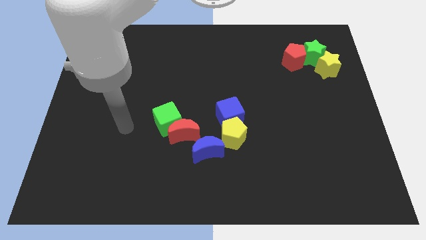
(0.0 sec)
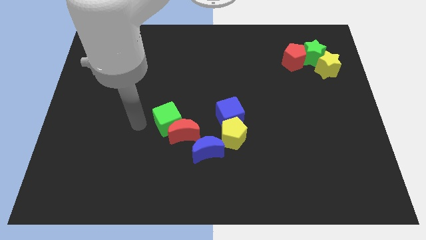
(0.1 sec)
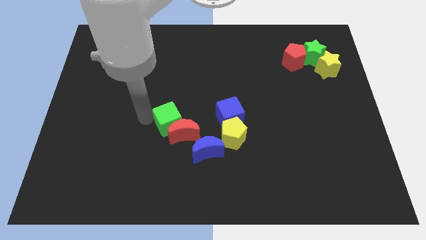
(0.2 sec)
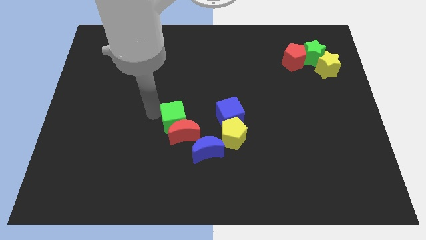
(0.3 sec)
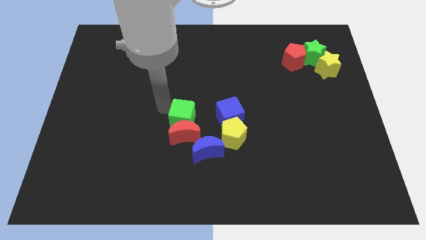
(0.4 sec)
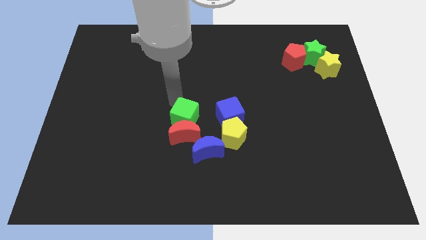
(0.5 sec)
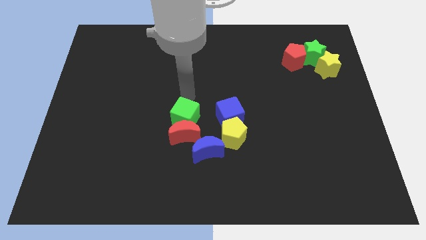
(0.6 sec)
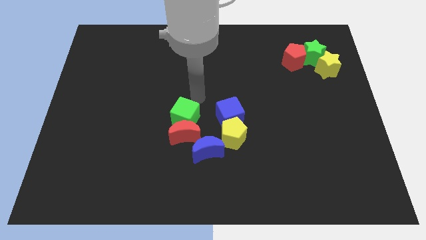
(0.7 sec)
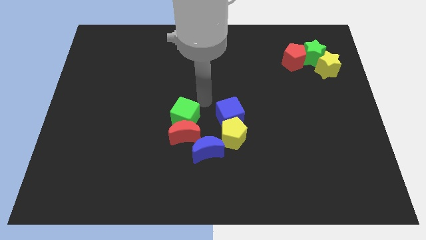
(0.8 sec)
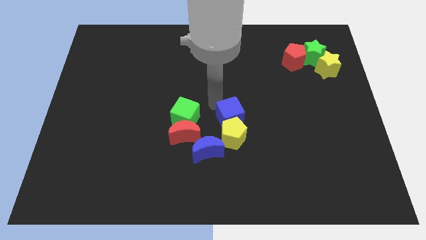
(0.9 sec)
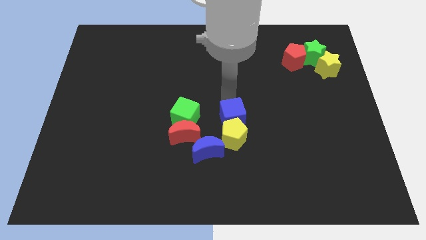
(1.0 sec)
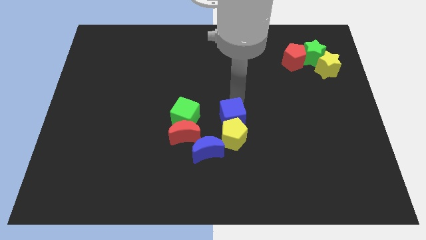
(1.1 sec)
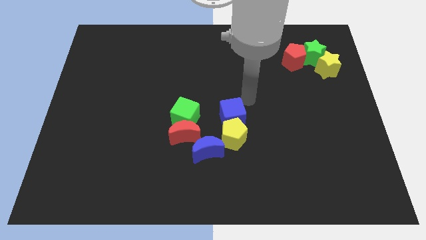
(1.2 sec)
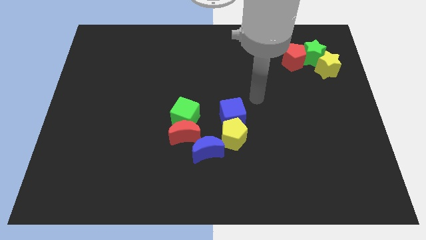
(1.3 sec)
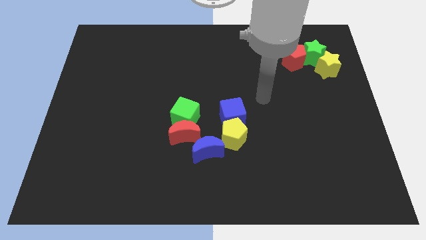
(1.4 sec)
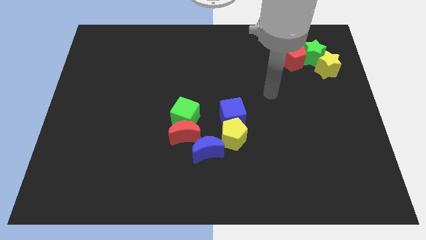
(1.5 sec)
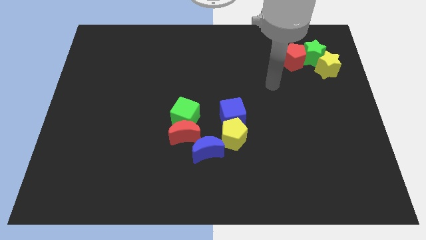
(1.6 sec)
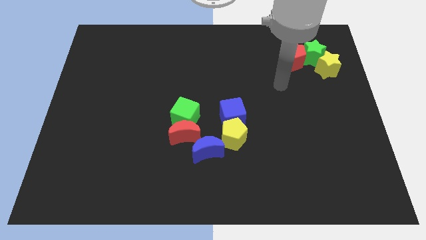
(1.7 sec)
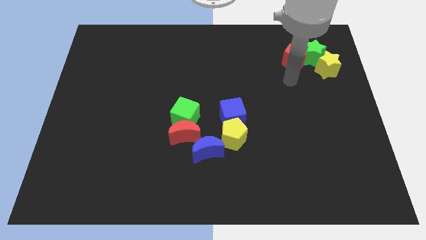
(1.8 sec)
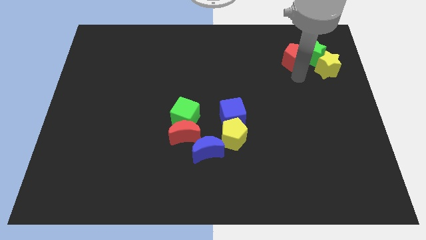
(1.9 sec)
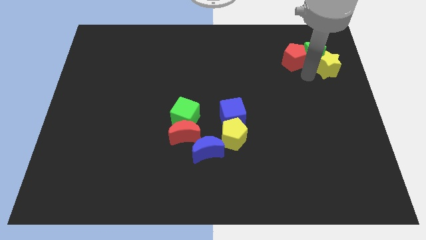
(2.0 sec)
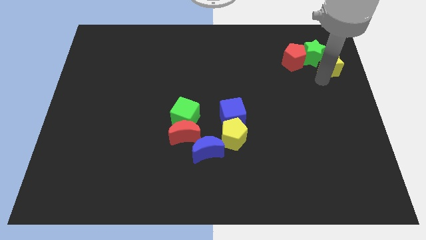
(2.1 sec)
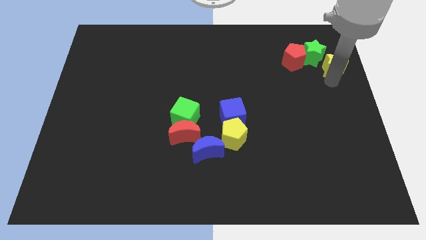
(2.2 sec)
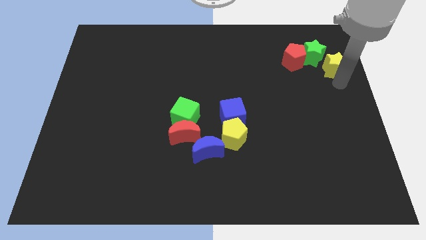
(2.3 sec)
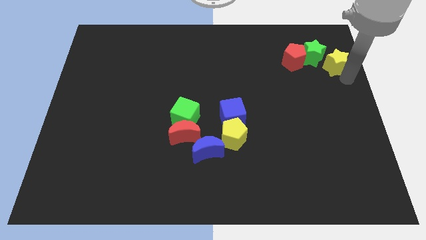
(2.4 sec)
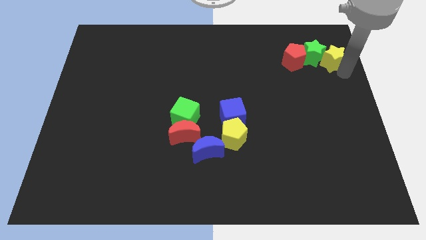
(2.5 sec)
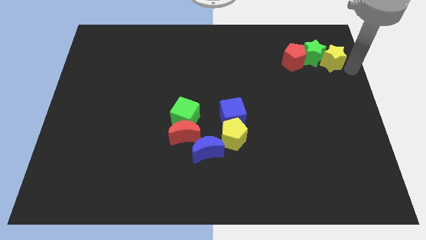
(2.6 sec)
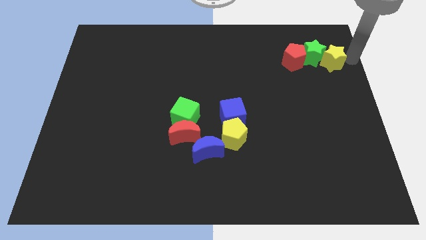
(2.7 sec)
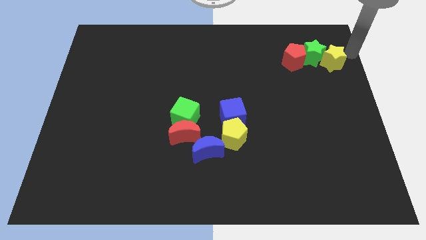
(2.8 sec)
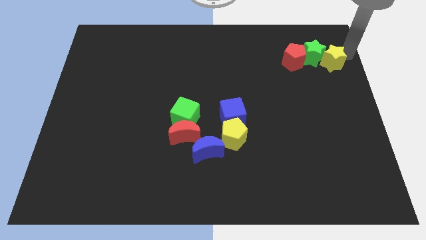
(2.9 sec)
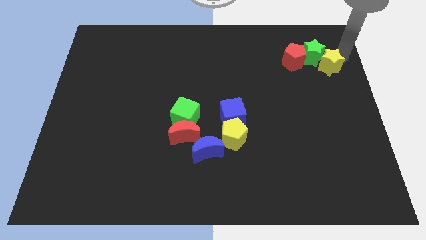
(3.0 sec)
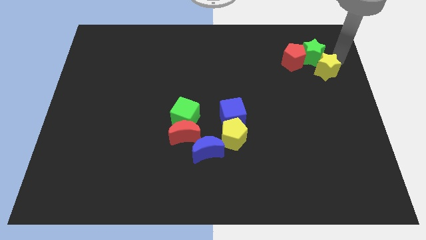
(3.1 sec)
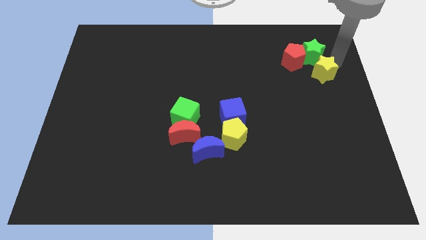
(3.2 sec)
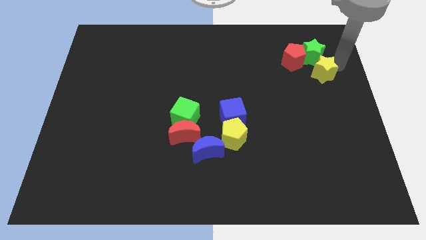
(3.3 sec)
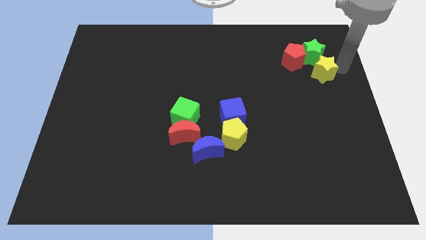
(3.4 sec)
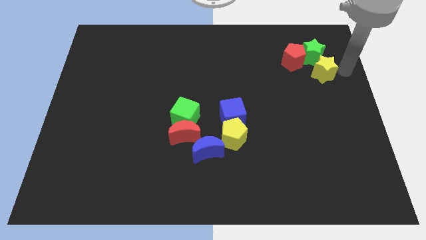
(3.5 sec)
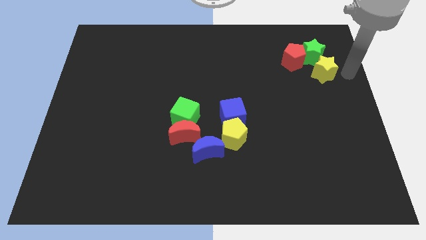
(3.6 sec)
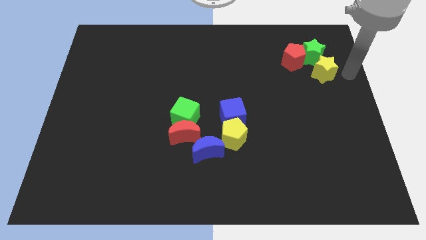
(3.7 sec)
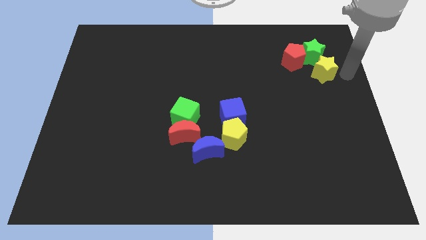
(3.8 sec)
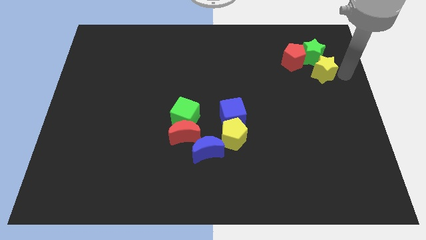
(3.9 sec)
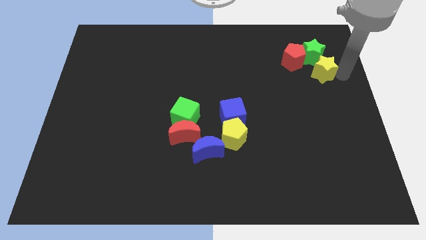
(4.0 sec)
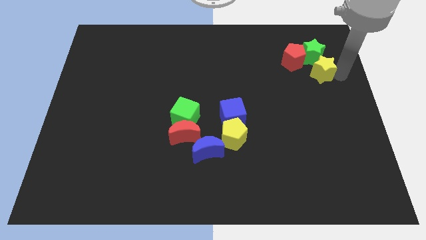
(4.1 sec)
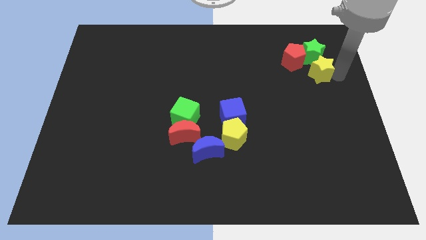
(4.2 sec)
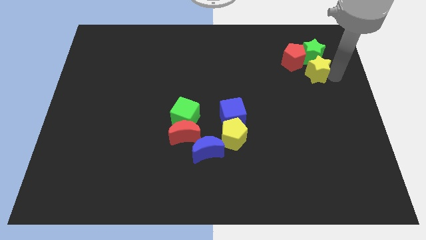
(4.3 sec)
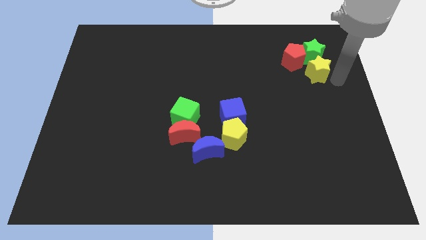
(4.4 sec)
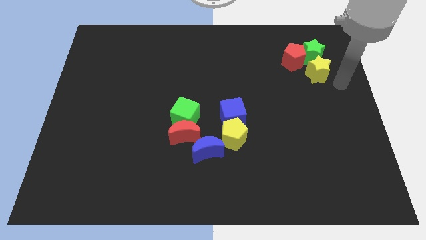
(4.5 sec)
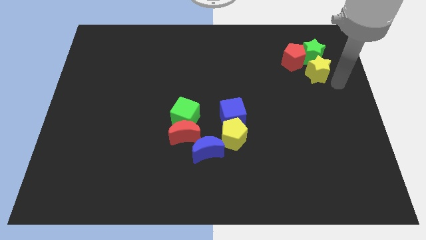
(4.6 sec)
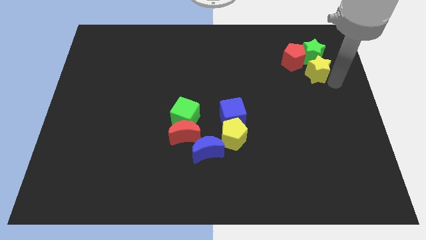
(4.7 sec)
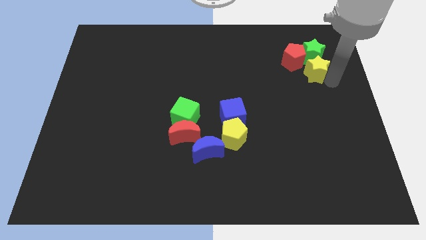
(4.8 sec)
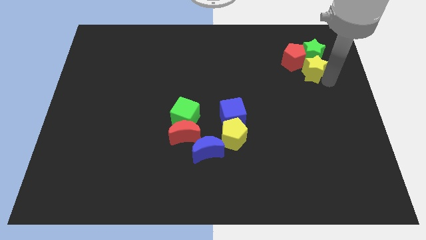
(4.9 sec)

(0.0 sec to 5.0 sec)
slide the yellow star close to the red pentagon

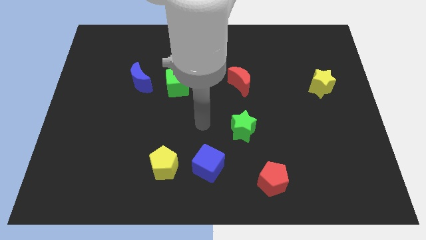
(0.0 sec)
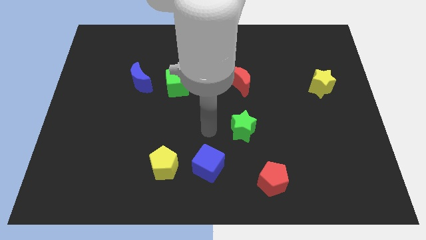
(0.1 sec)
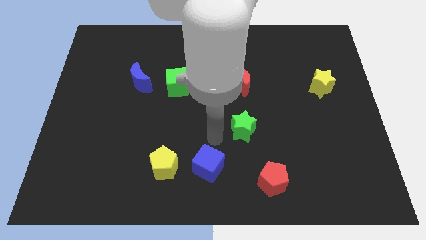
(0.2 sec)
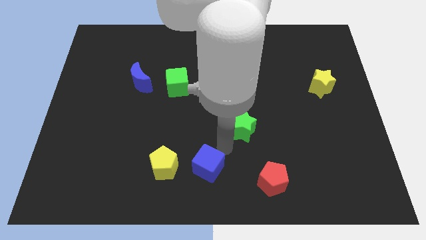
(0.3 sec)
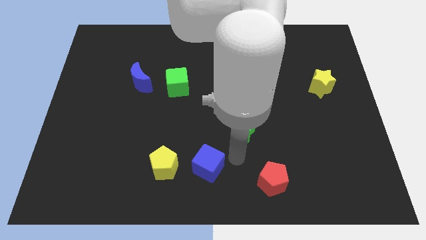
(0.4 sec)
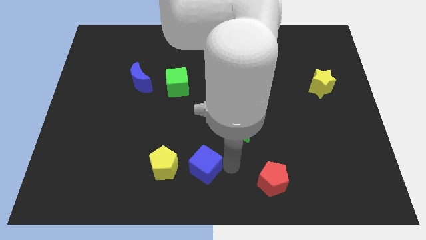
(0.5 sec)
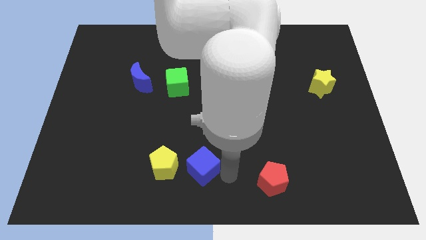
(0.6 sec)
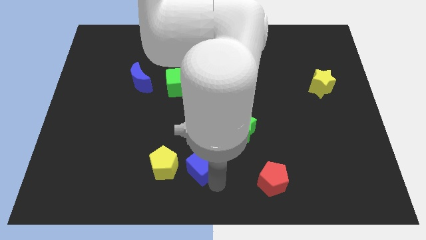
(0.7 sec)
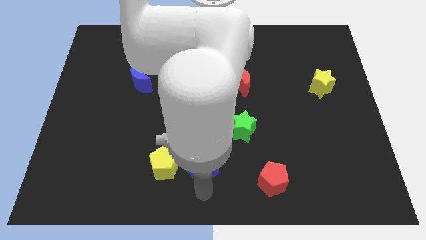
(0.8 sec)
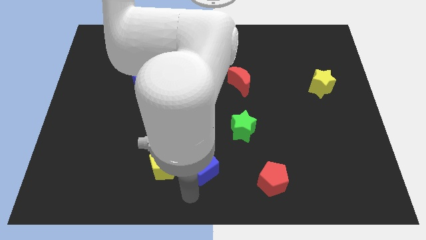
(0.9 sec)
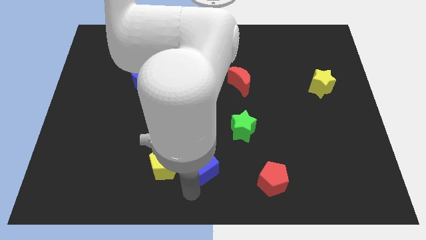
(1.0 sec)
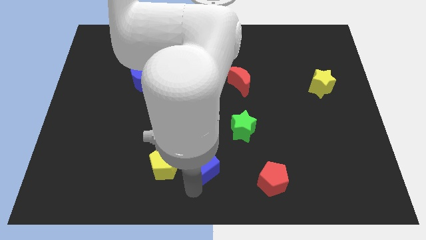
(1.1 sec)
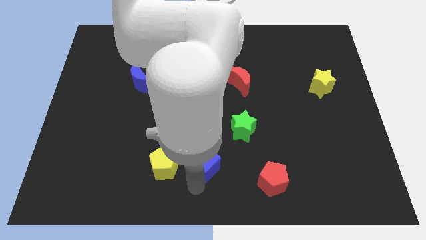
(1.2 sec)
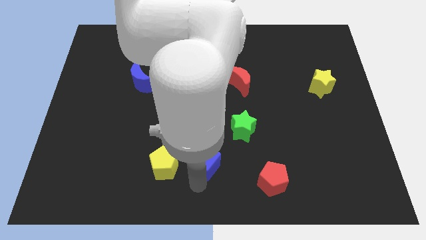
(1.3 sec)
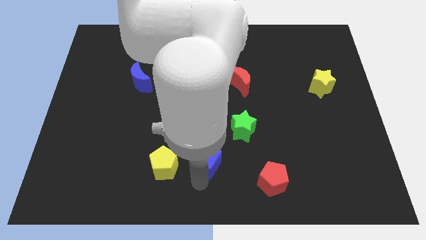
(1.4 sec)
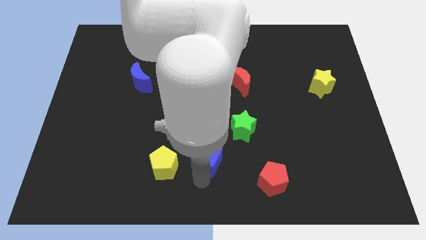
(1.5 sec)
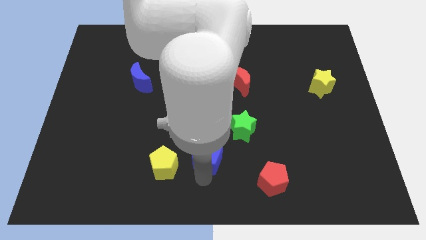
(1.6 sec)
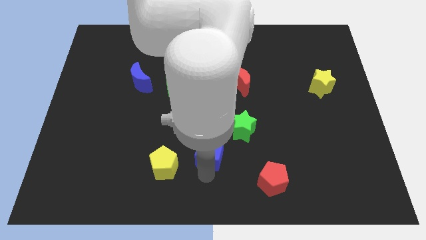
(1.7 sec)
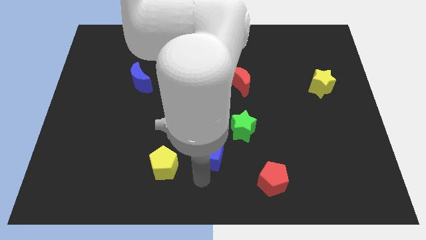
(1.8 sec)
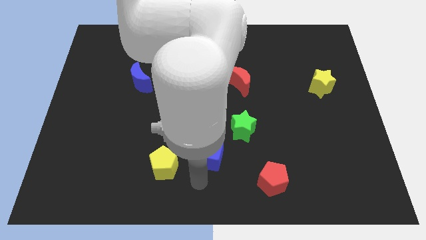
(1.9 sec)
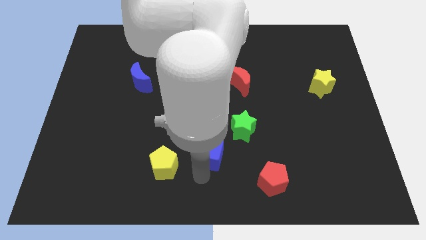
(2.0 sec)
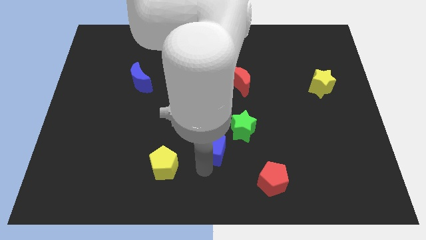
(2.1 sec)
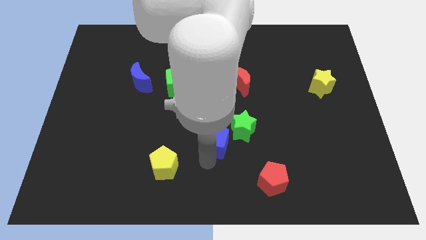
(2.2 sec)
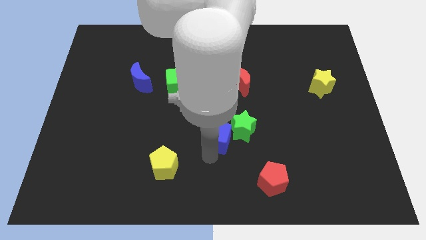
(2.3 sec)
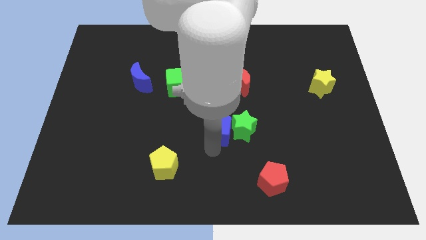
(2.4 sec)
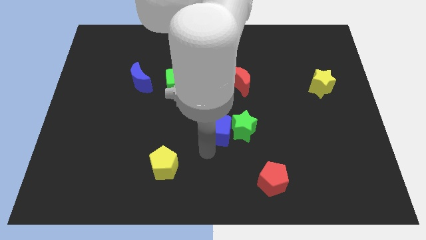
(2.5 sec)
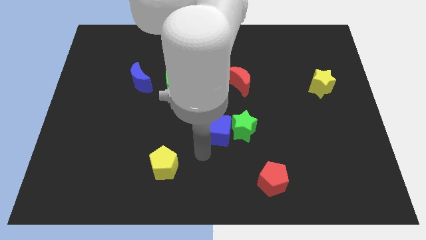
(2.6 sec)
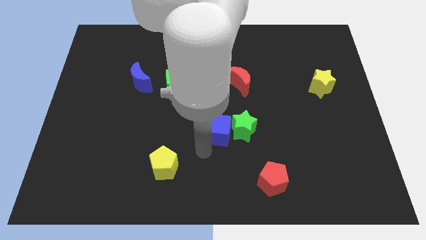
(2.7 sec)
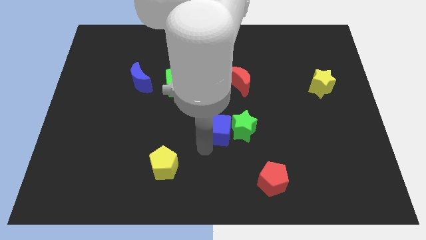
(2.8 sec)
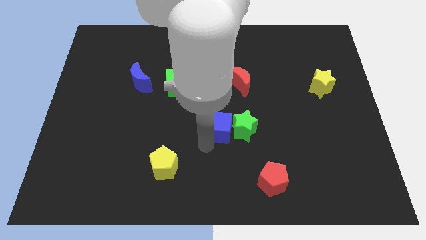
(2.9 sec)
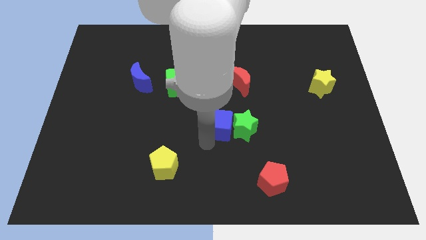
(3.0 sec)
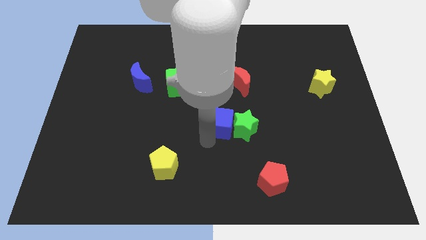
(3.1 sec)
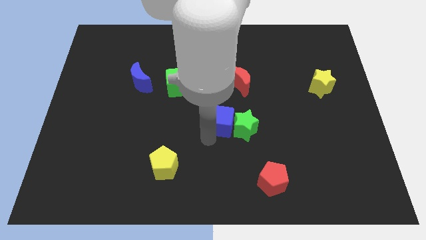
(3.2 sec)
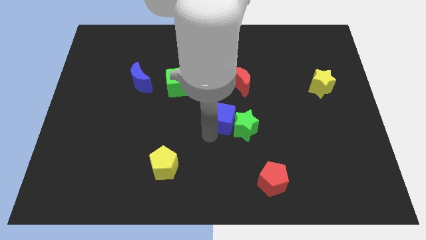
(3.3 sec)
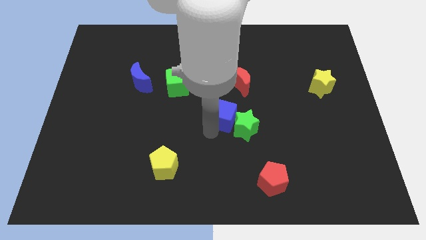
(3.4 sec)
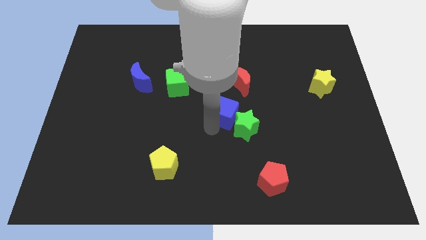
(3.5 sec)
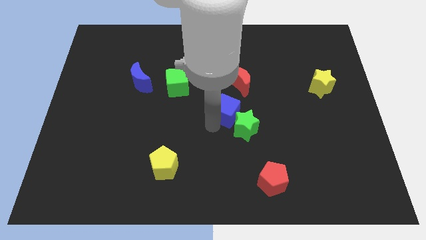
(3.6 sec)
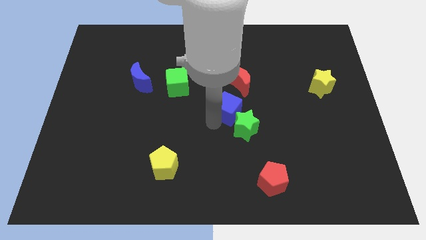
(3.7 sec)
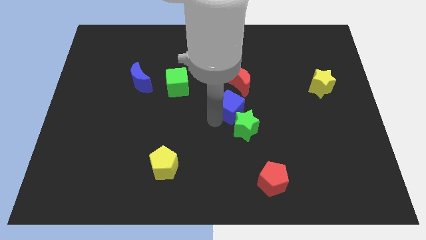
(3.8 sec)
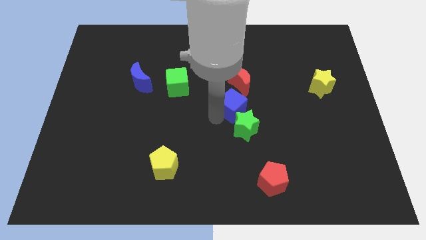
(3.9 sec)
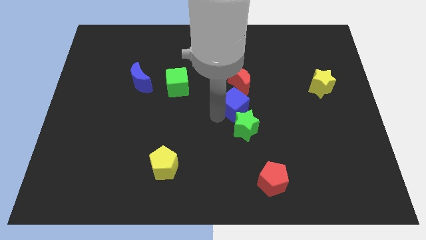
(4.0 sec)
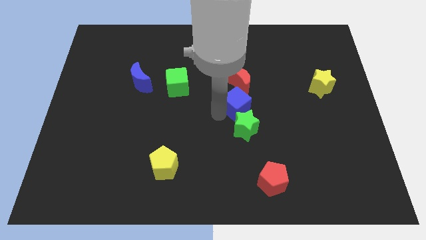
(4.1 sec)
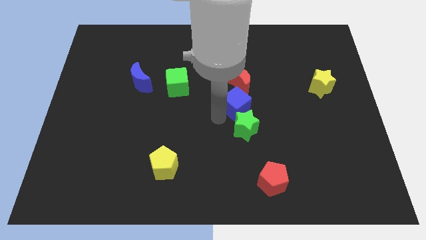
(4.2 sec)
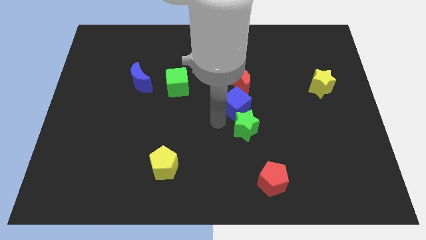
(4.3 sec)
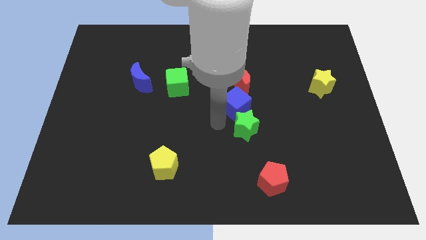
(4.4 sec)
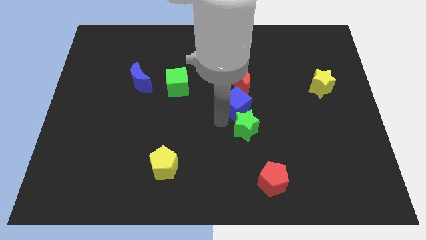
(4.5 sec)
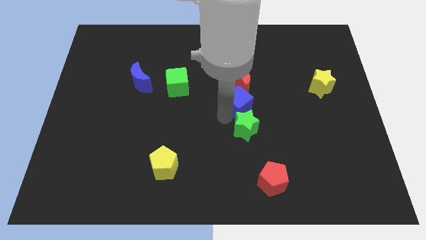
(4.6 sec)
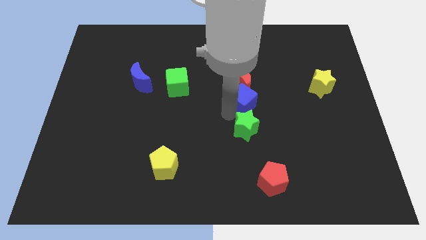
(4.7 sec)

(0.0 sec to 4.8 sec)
put the blue cube close to the red moon
